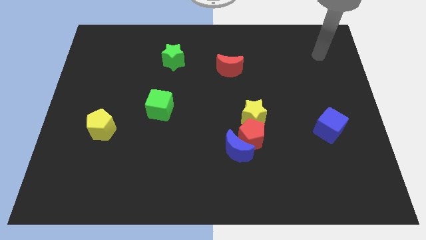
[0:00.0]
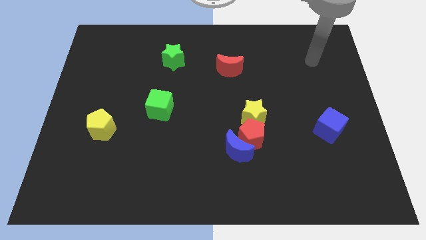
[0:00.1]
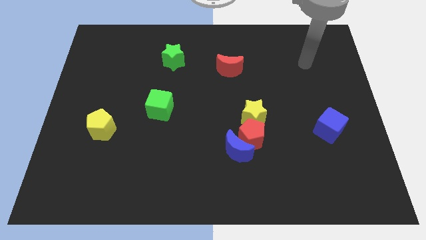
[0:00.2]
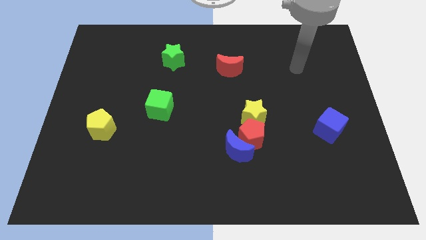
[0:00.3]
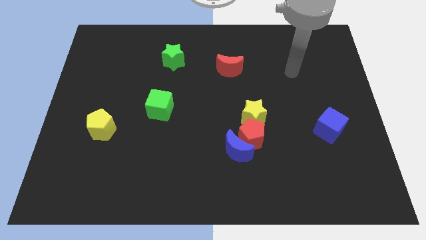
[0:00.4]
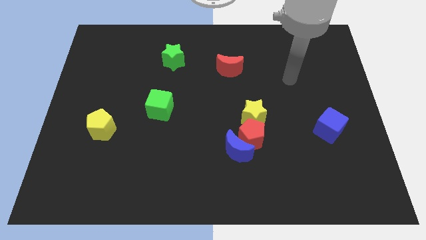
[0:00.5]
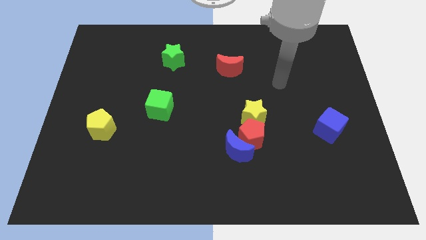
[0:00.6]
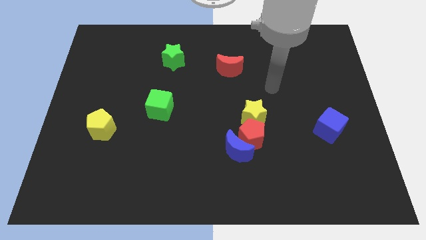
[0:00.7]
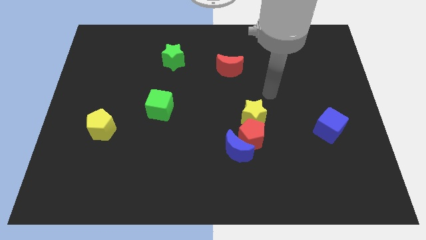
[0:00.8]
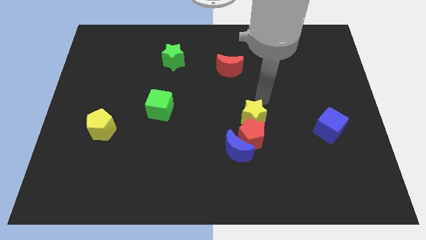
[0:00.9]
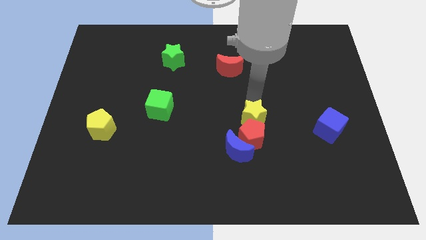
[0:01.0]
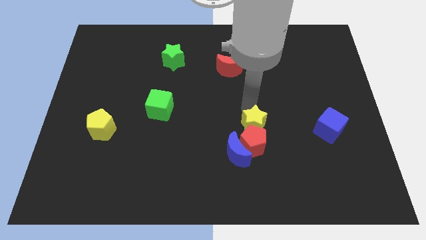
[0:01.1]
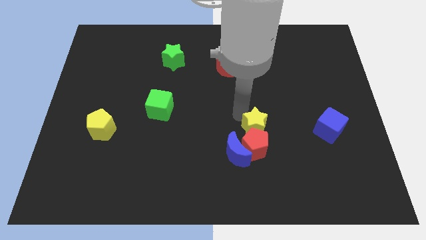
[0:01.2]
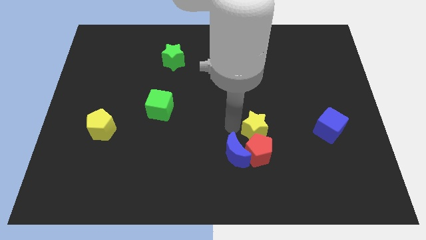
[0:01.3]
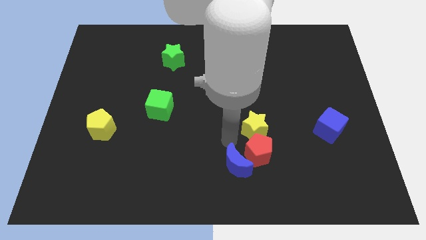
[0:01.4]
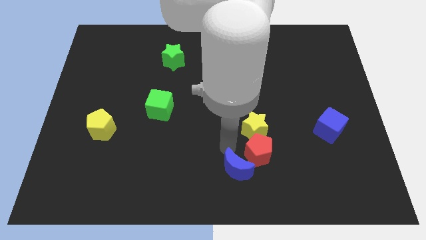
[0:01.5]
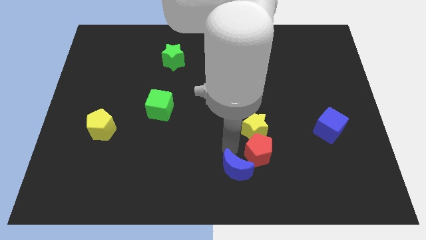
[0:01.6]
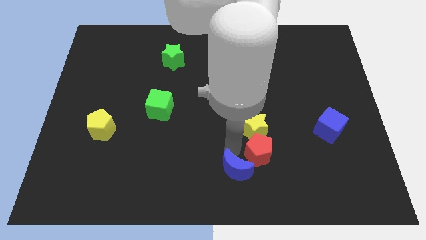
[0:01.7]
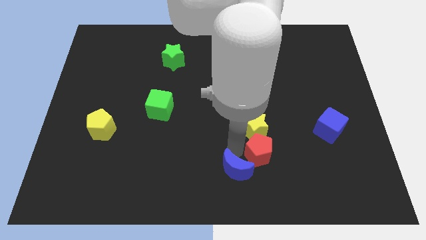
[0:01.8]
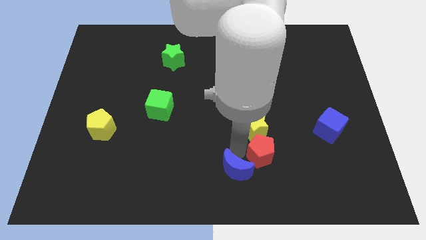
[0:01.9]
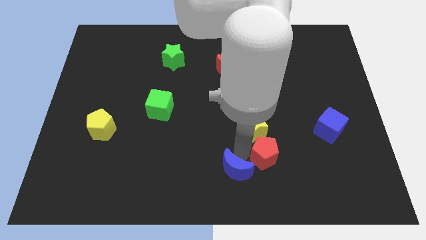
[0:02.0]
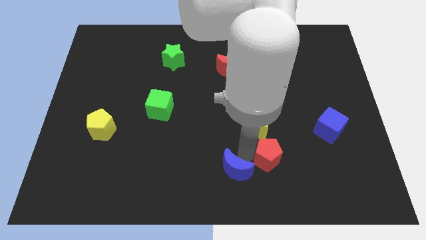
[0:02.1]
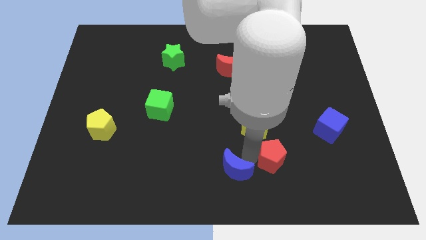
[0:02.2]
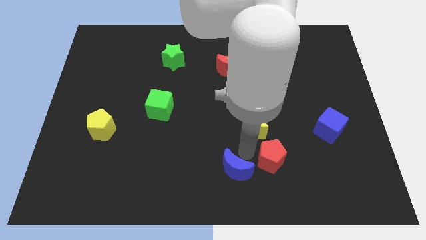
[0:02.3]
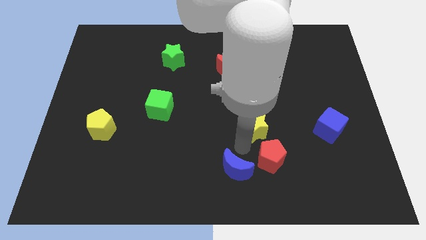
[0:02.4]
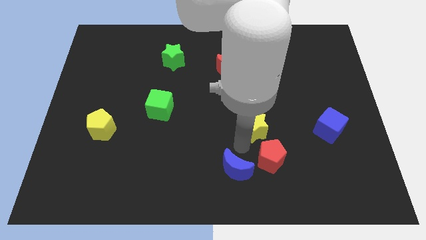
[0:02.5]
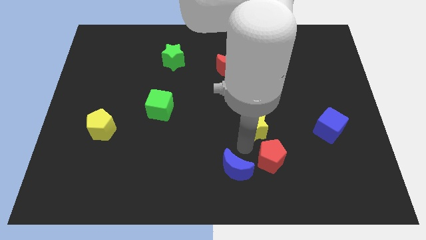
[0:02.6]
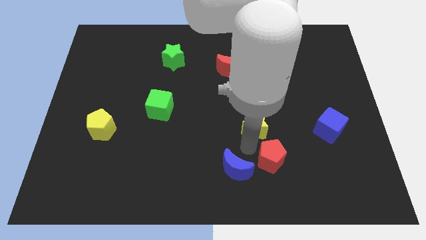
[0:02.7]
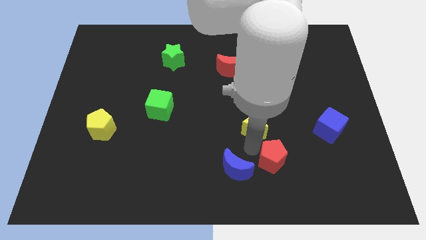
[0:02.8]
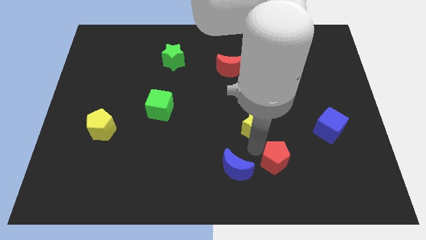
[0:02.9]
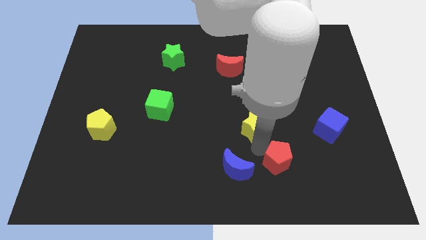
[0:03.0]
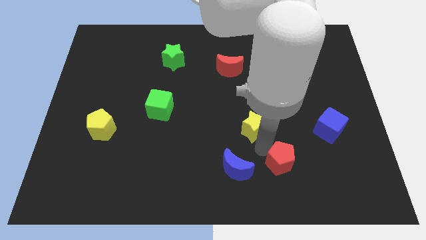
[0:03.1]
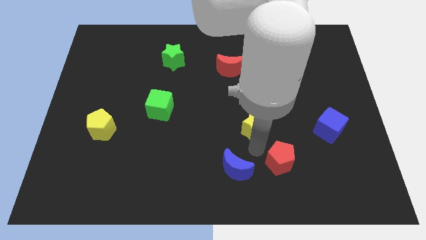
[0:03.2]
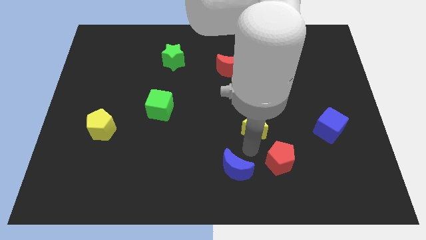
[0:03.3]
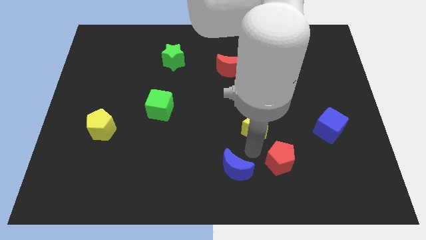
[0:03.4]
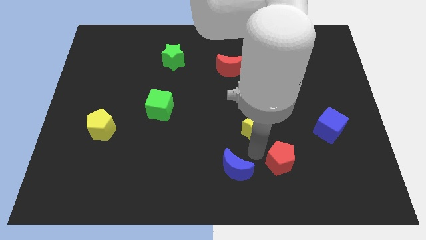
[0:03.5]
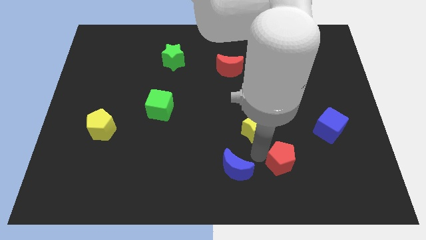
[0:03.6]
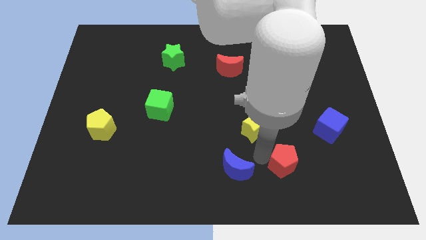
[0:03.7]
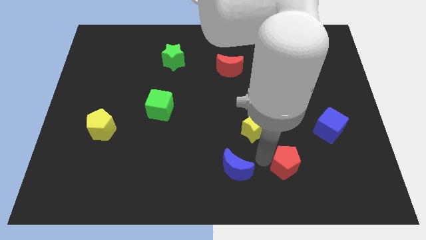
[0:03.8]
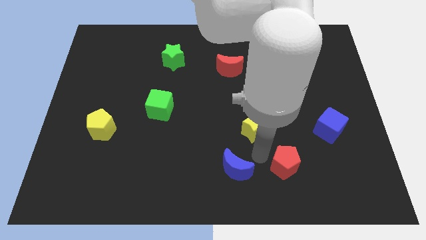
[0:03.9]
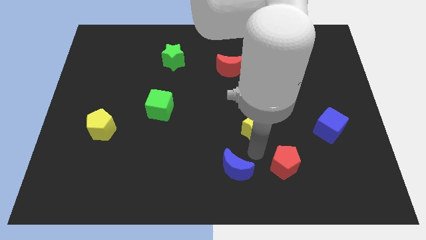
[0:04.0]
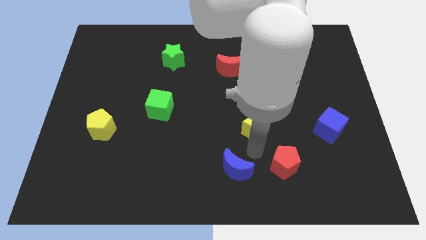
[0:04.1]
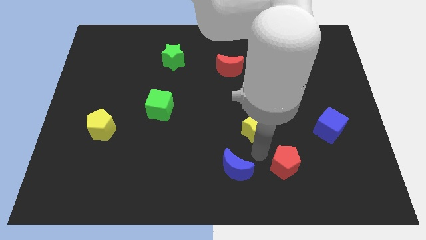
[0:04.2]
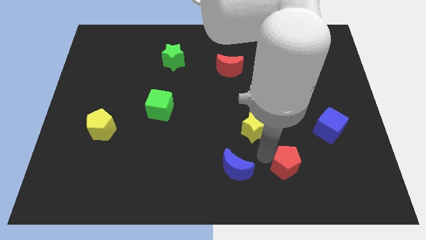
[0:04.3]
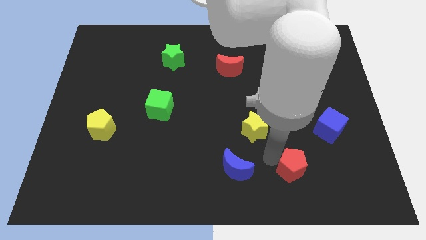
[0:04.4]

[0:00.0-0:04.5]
separate the red pentagon from the blue moon and yellow star

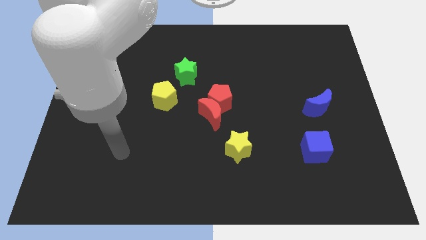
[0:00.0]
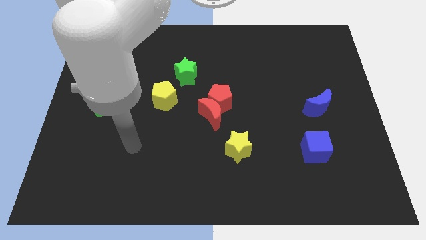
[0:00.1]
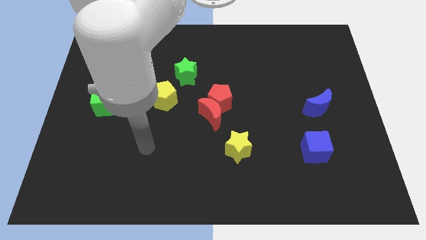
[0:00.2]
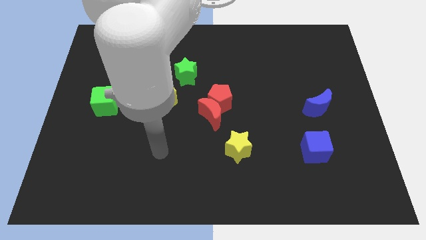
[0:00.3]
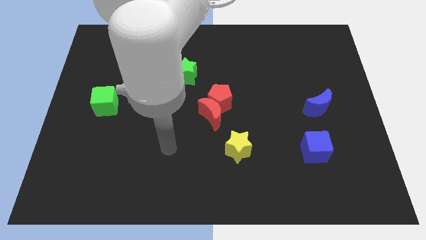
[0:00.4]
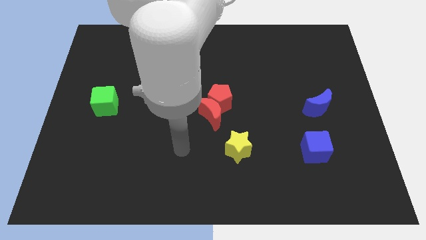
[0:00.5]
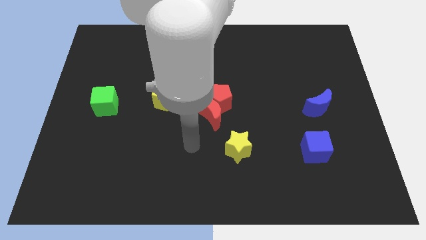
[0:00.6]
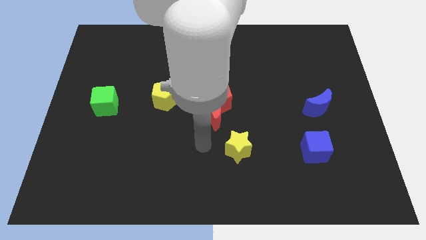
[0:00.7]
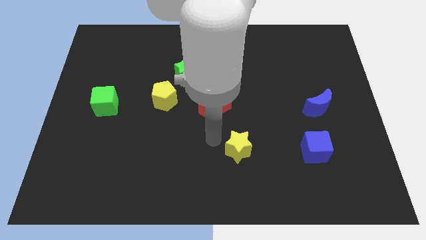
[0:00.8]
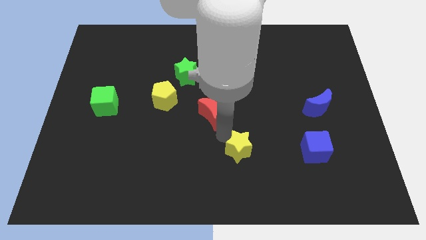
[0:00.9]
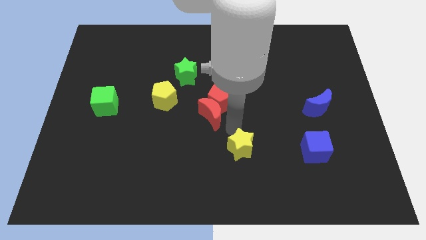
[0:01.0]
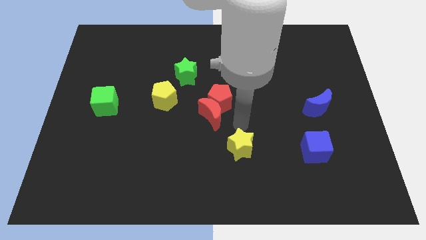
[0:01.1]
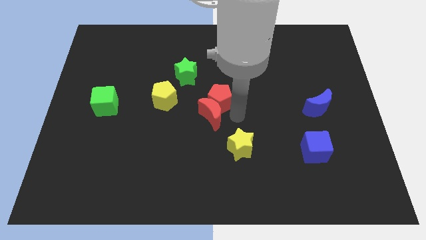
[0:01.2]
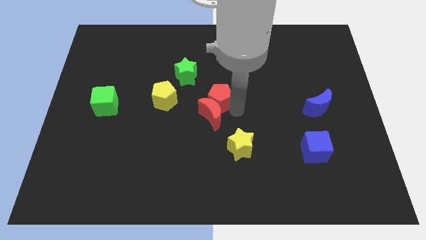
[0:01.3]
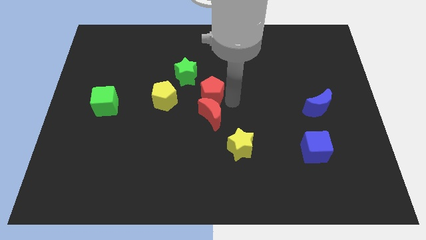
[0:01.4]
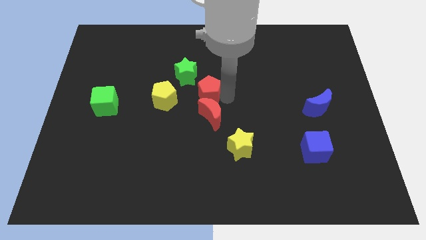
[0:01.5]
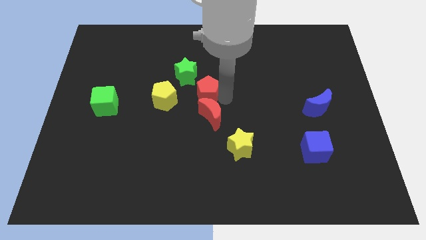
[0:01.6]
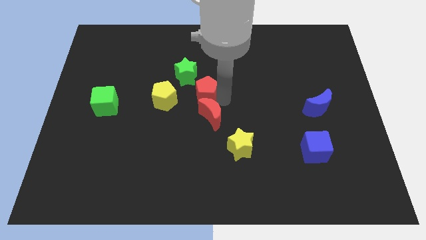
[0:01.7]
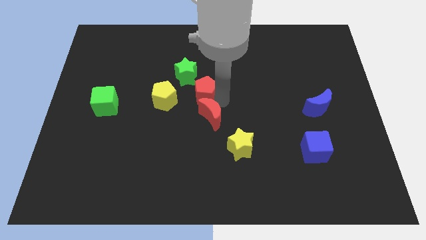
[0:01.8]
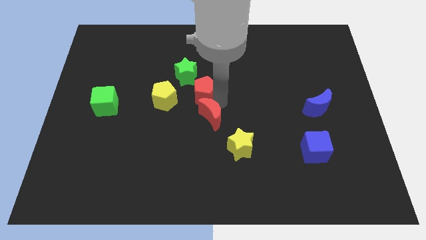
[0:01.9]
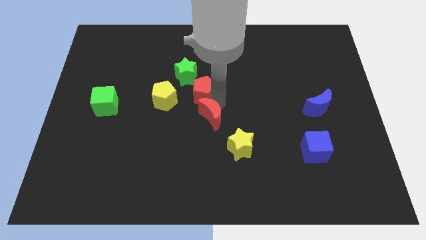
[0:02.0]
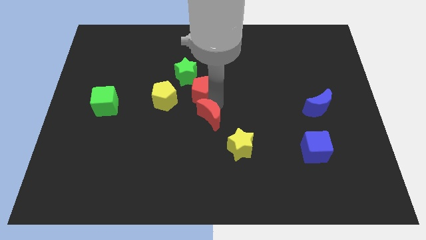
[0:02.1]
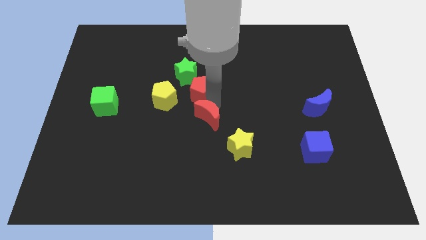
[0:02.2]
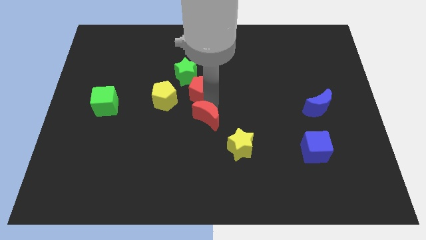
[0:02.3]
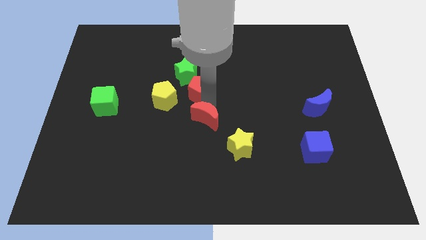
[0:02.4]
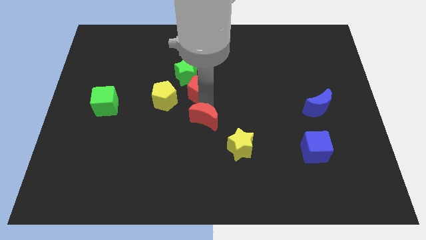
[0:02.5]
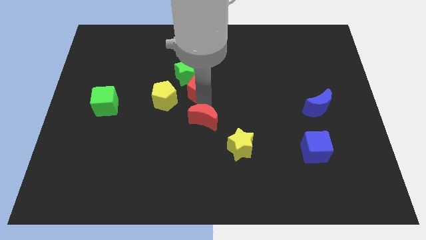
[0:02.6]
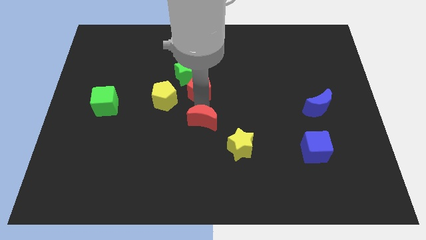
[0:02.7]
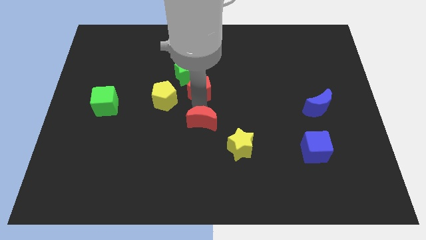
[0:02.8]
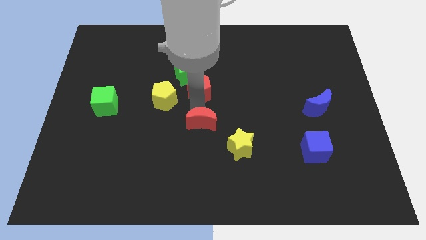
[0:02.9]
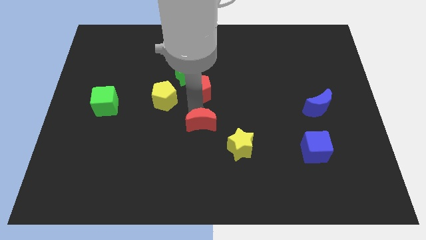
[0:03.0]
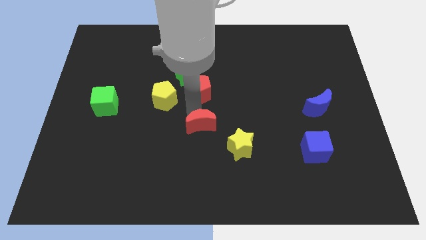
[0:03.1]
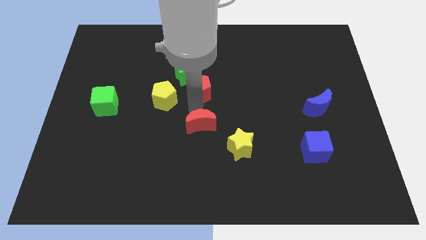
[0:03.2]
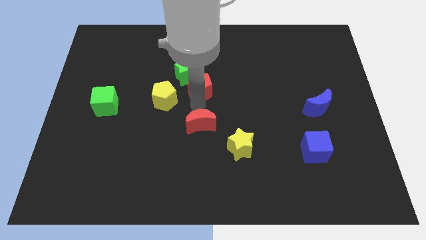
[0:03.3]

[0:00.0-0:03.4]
move the red moon away from the red pentagon

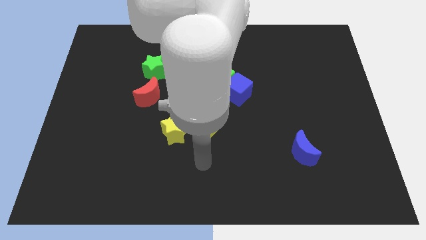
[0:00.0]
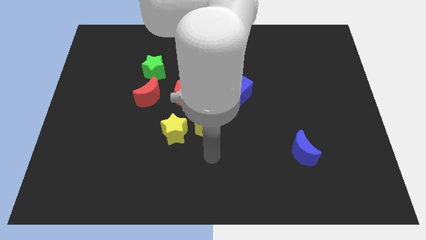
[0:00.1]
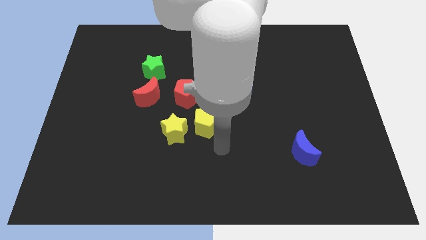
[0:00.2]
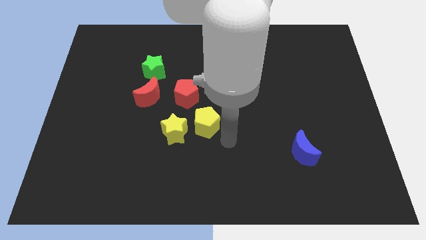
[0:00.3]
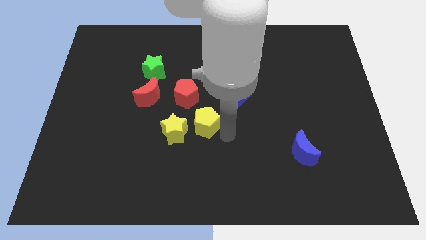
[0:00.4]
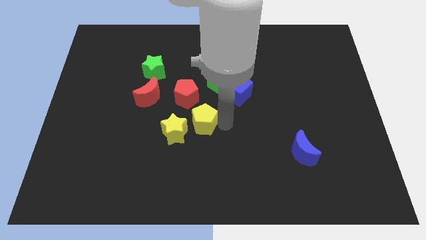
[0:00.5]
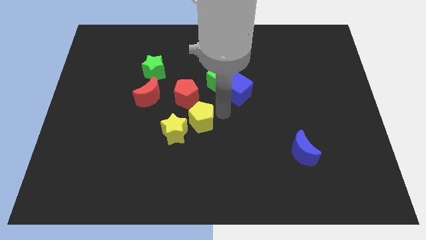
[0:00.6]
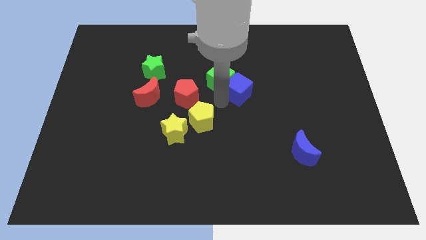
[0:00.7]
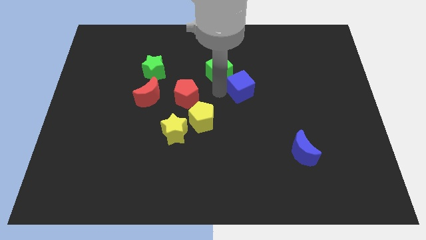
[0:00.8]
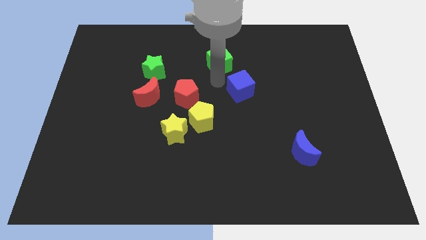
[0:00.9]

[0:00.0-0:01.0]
pull the blue cube apart from the green cube

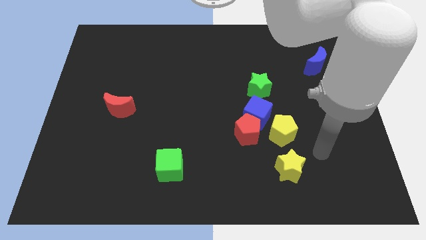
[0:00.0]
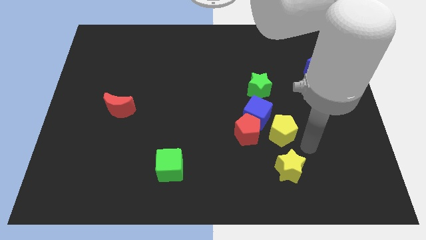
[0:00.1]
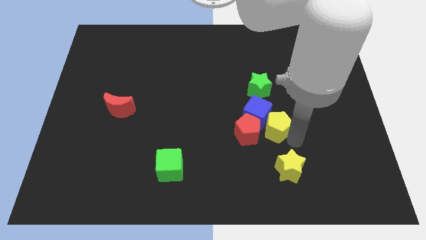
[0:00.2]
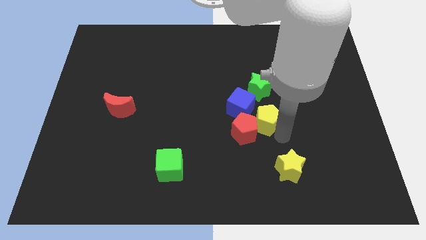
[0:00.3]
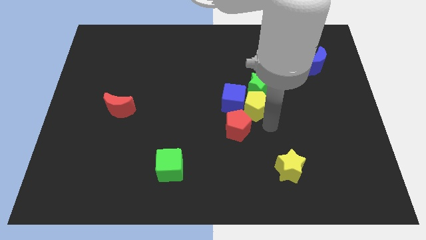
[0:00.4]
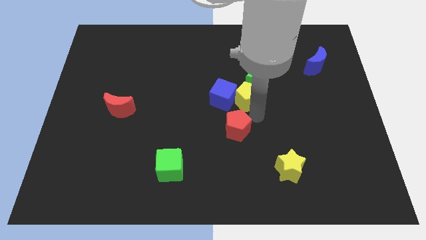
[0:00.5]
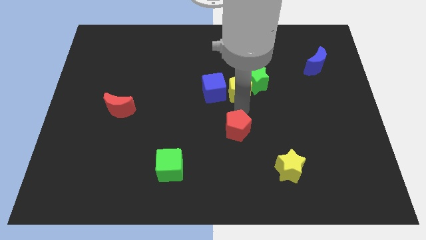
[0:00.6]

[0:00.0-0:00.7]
move the red pentagon away from the blue cube and yellow pentagon
